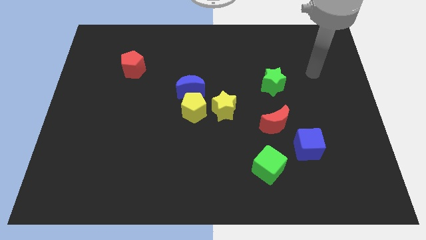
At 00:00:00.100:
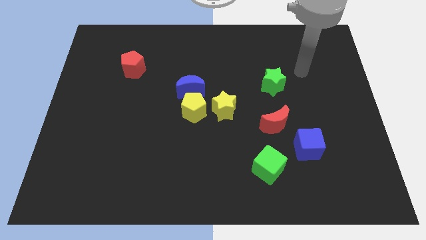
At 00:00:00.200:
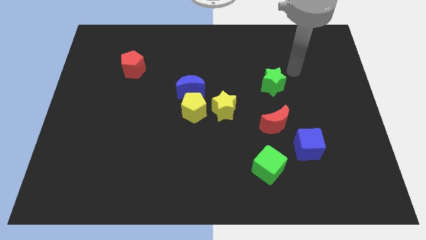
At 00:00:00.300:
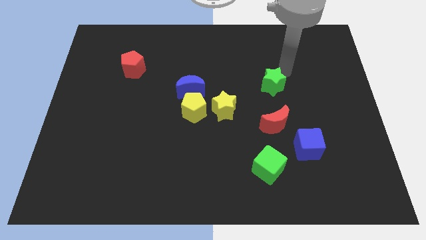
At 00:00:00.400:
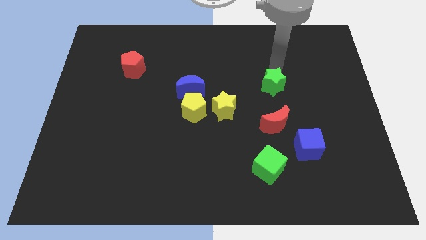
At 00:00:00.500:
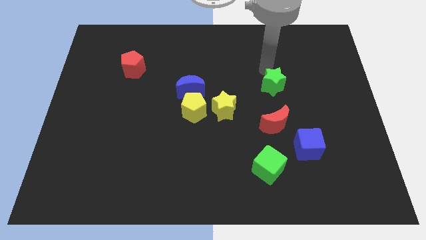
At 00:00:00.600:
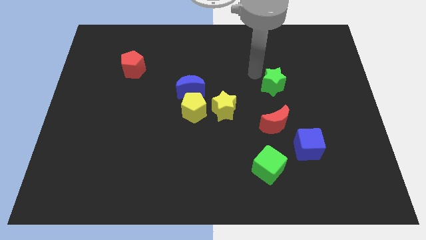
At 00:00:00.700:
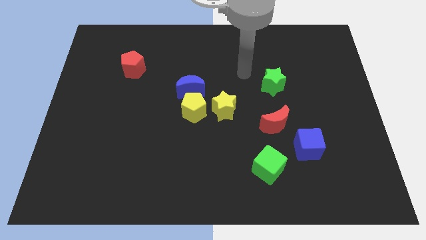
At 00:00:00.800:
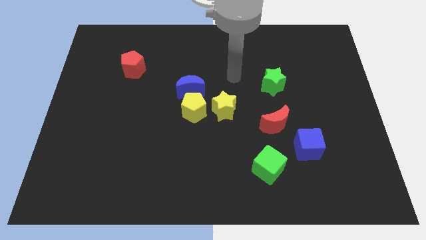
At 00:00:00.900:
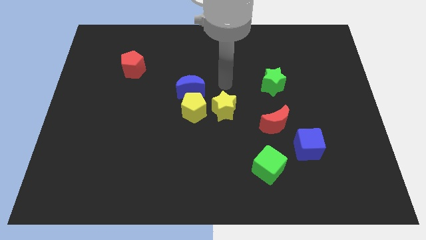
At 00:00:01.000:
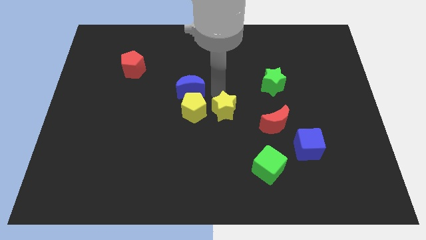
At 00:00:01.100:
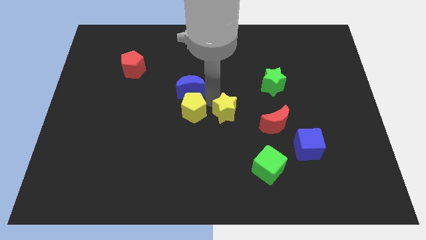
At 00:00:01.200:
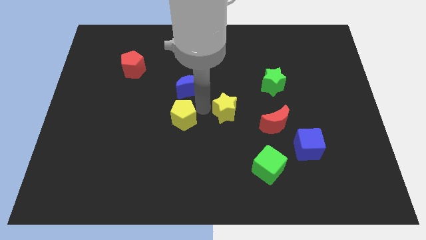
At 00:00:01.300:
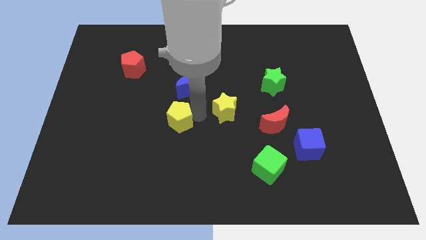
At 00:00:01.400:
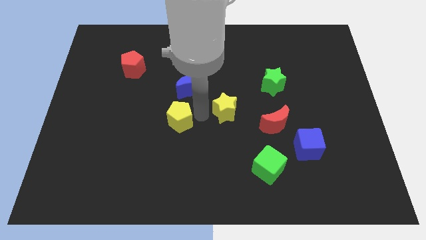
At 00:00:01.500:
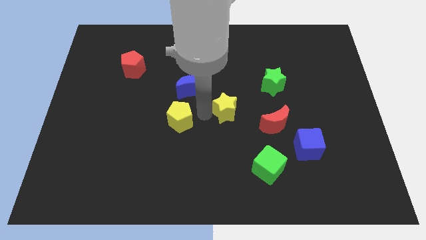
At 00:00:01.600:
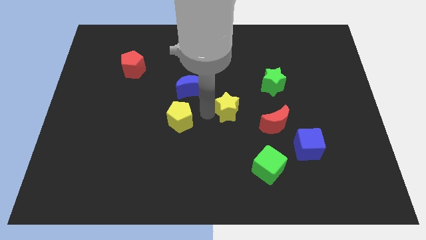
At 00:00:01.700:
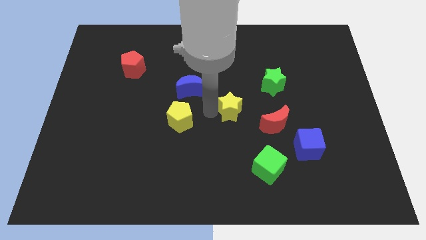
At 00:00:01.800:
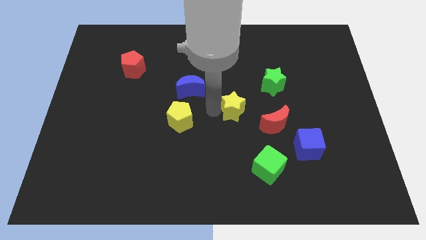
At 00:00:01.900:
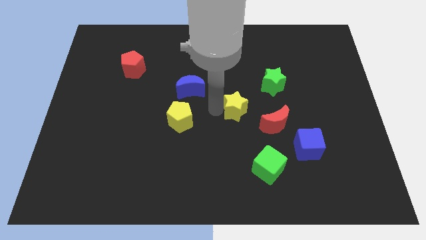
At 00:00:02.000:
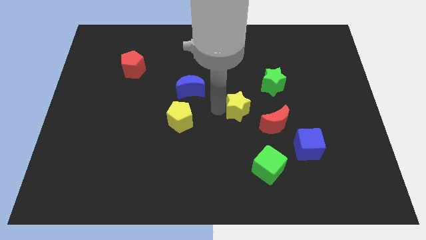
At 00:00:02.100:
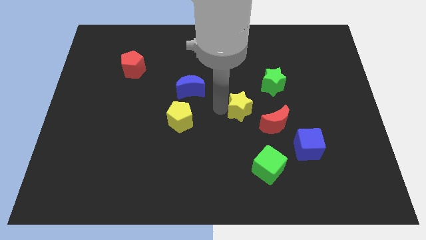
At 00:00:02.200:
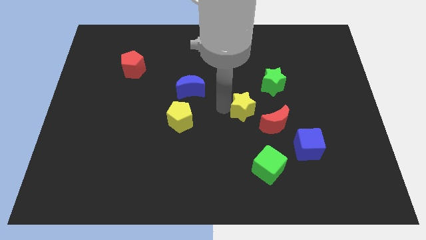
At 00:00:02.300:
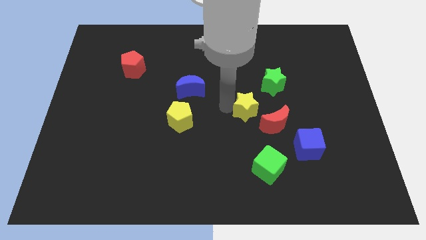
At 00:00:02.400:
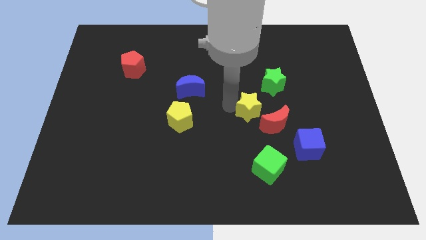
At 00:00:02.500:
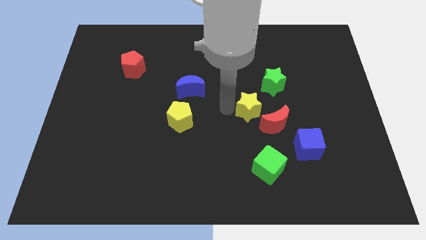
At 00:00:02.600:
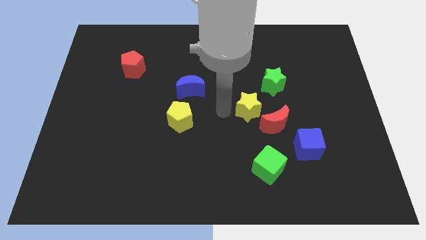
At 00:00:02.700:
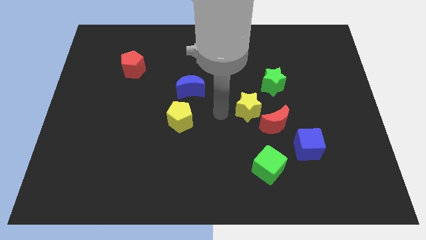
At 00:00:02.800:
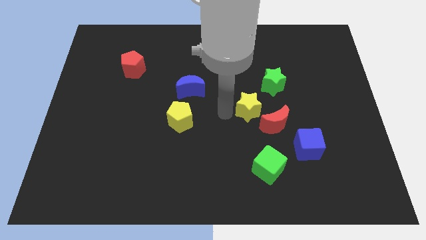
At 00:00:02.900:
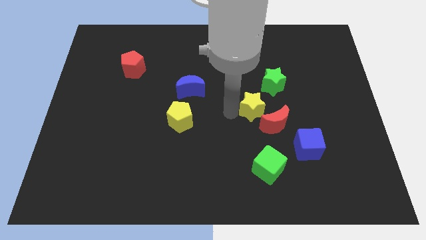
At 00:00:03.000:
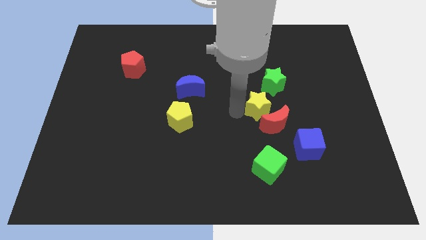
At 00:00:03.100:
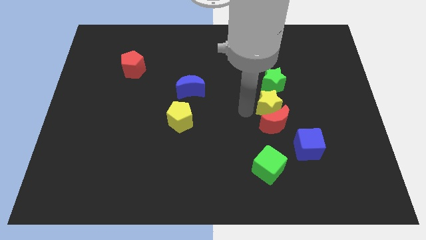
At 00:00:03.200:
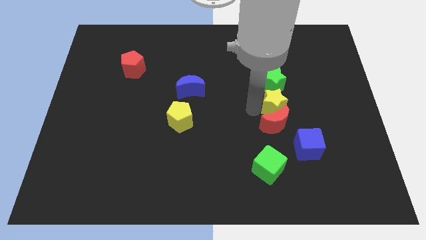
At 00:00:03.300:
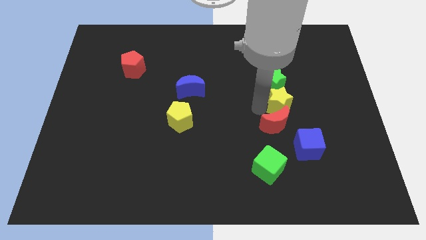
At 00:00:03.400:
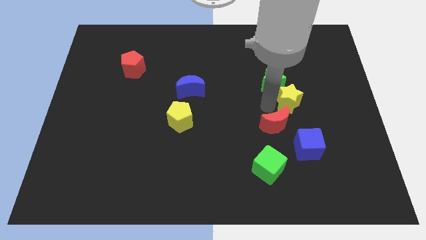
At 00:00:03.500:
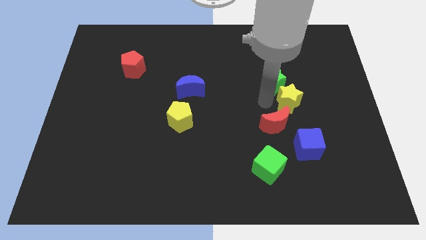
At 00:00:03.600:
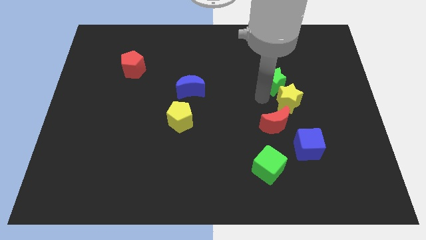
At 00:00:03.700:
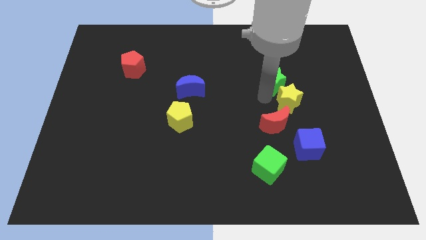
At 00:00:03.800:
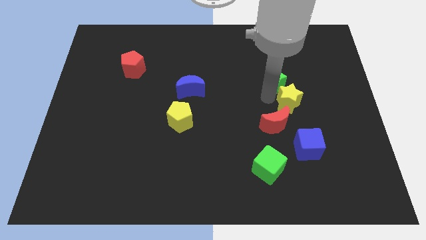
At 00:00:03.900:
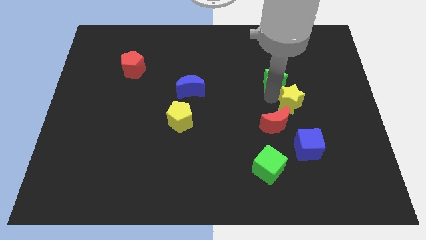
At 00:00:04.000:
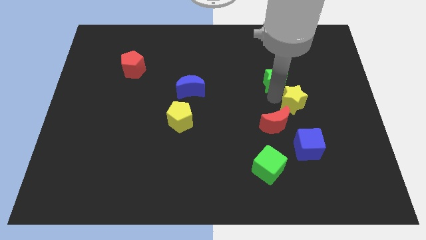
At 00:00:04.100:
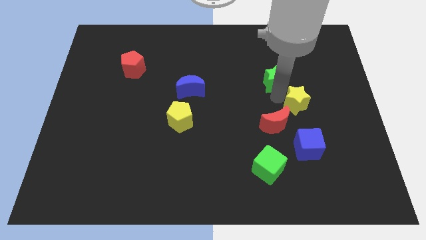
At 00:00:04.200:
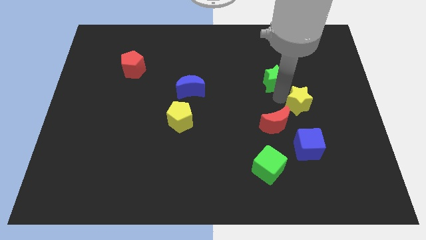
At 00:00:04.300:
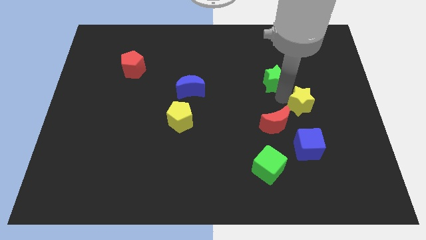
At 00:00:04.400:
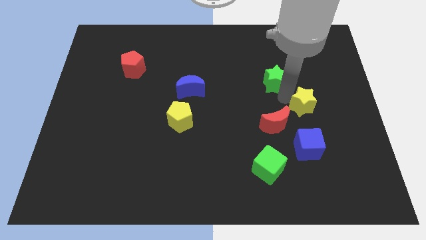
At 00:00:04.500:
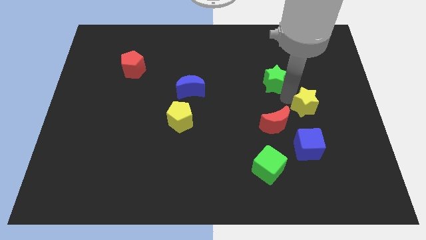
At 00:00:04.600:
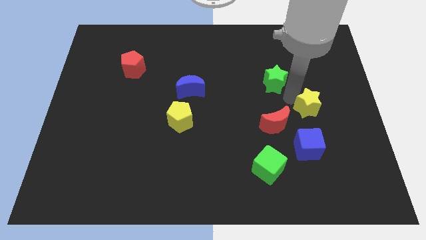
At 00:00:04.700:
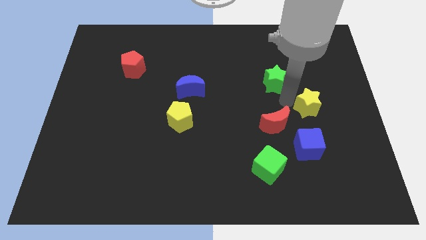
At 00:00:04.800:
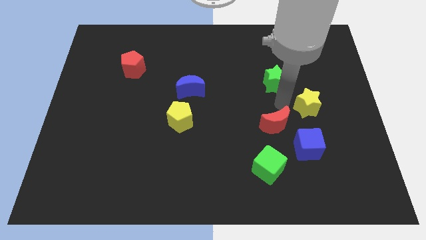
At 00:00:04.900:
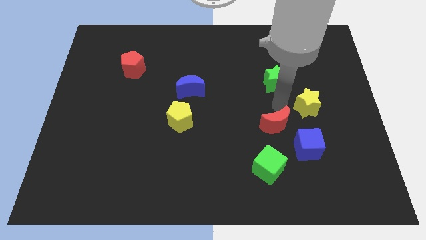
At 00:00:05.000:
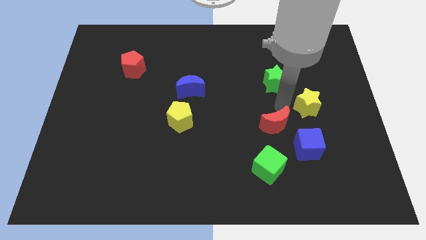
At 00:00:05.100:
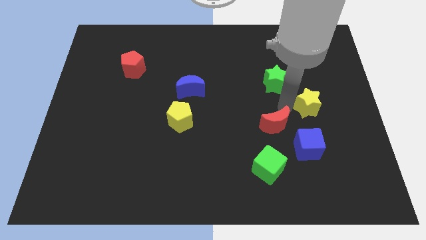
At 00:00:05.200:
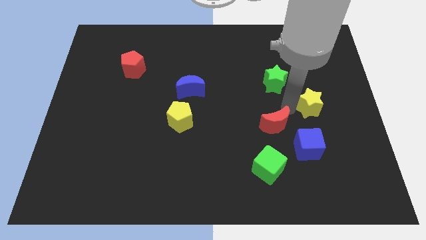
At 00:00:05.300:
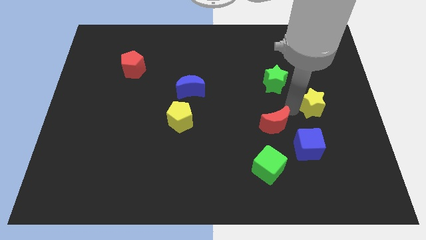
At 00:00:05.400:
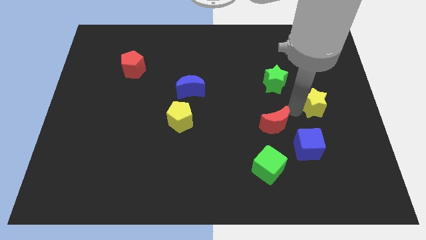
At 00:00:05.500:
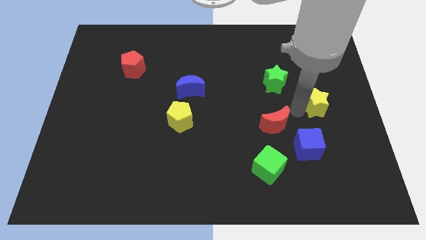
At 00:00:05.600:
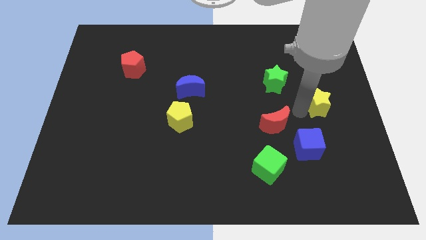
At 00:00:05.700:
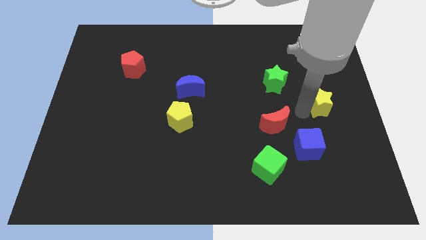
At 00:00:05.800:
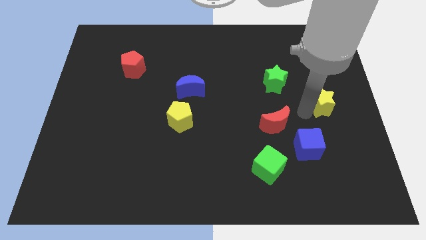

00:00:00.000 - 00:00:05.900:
put the yellow star to the right side of the board

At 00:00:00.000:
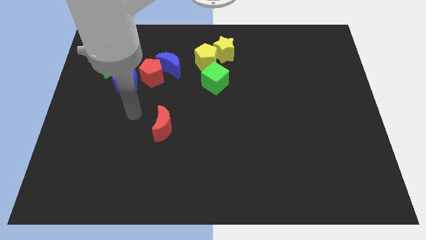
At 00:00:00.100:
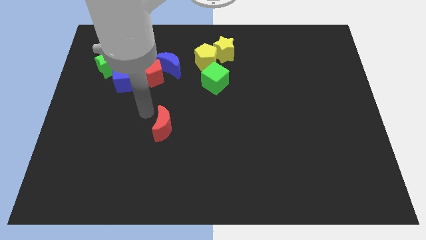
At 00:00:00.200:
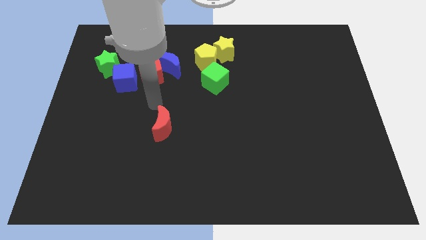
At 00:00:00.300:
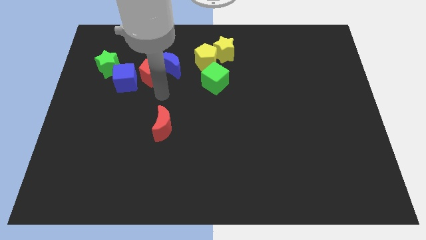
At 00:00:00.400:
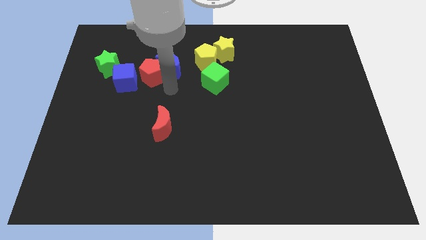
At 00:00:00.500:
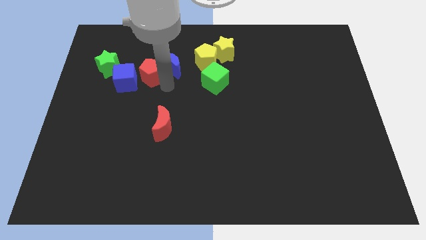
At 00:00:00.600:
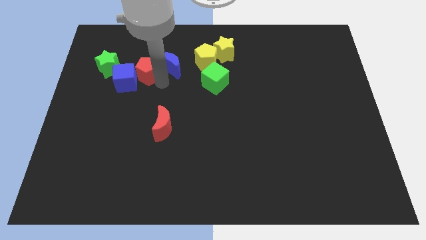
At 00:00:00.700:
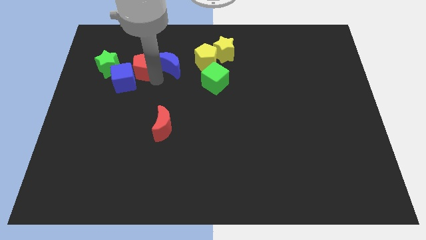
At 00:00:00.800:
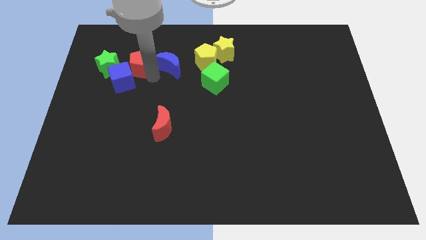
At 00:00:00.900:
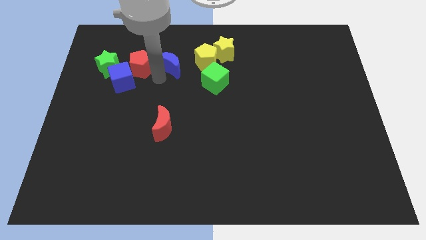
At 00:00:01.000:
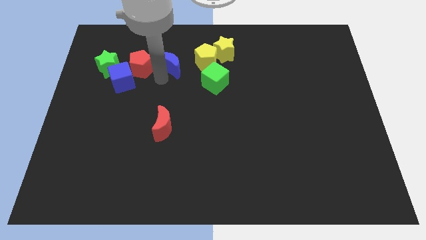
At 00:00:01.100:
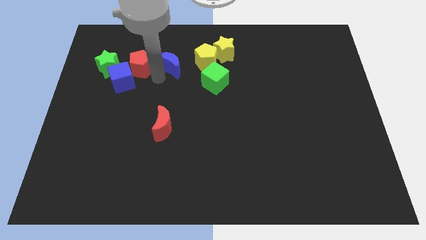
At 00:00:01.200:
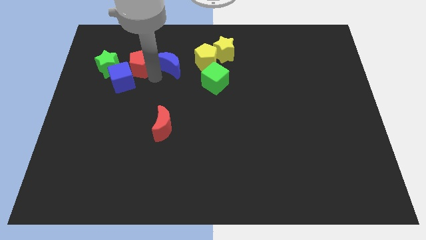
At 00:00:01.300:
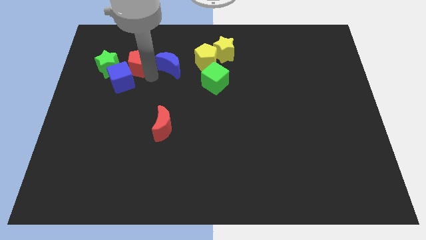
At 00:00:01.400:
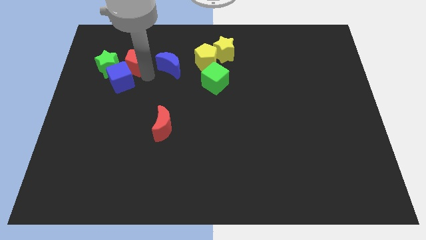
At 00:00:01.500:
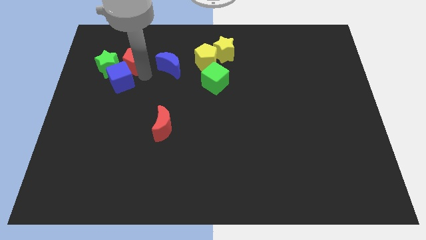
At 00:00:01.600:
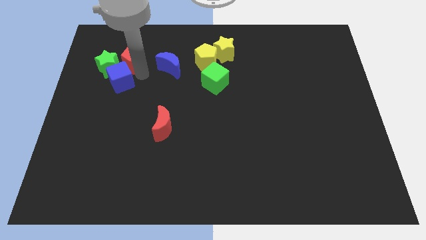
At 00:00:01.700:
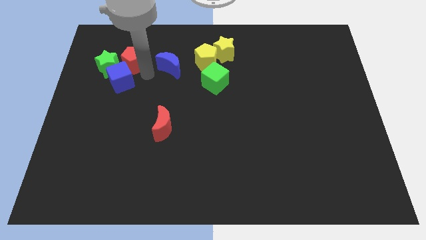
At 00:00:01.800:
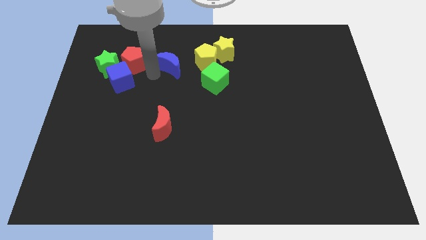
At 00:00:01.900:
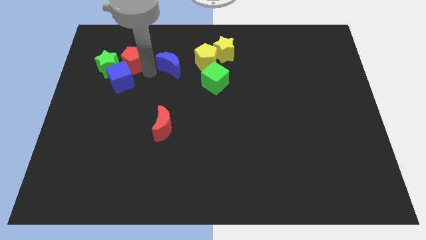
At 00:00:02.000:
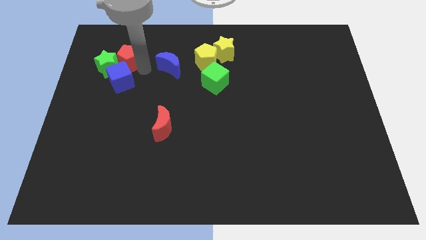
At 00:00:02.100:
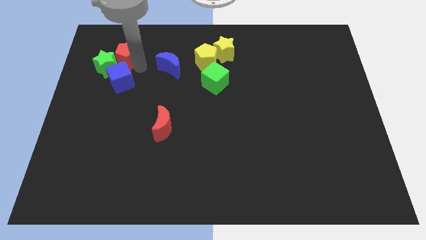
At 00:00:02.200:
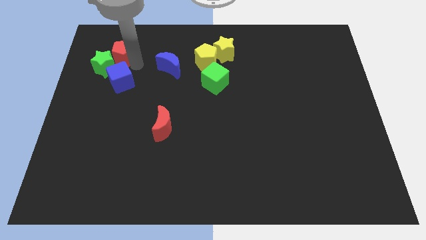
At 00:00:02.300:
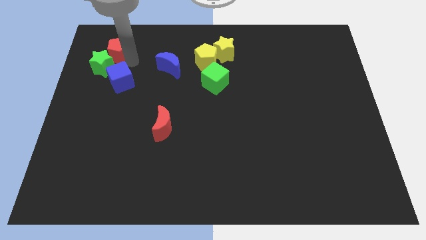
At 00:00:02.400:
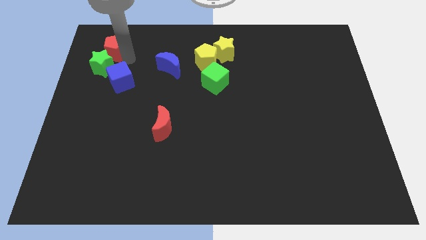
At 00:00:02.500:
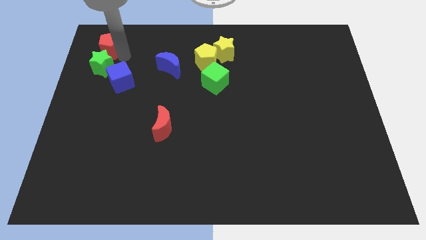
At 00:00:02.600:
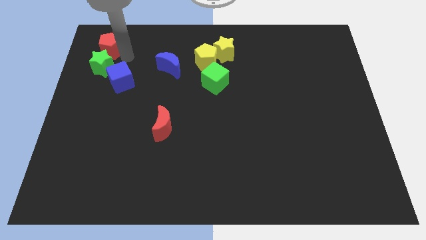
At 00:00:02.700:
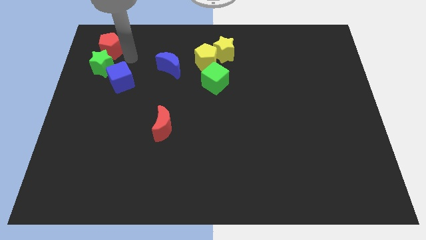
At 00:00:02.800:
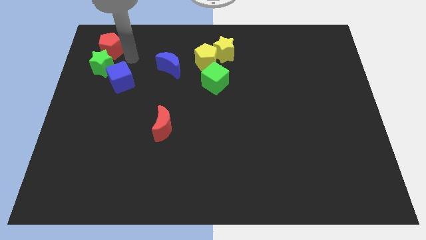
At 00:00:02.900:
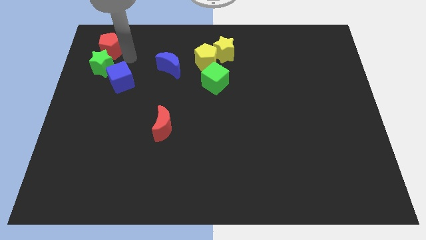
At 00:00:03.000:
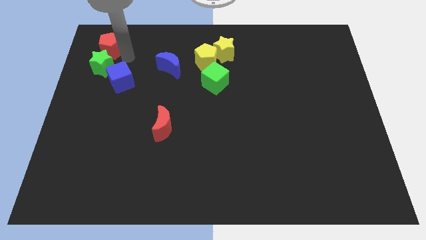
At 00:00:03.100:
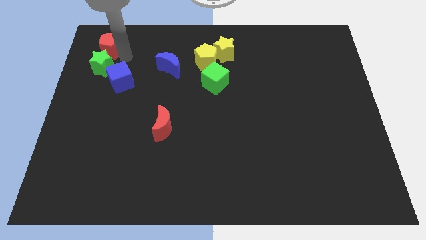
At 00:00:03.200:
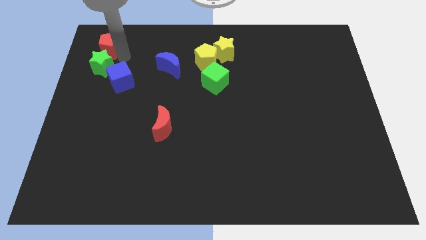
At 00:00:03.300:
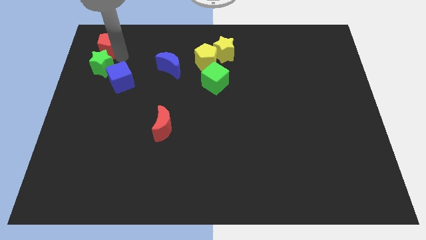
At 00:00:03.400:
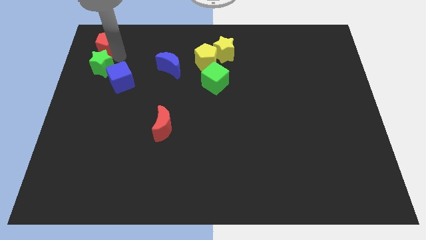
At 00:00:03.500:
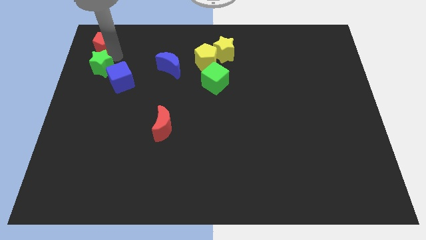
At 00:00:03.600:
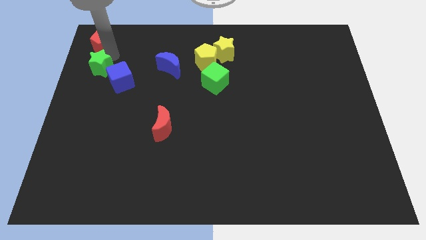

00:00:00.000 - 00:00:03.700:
push the red pentagon to the top left
